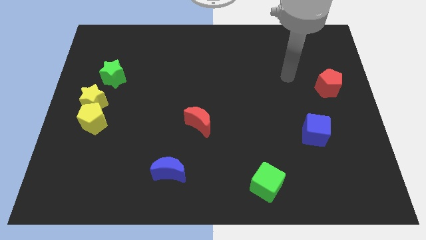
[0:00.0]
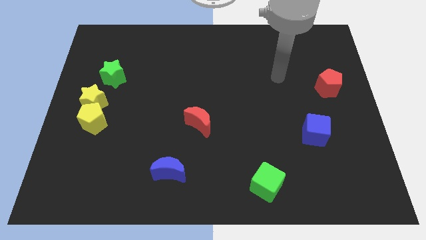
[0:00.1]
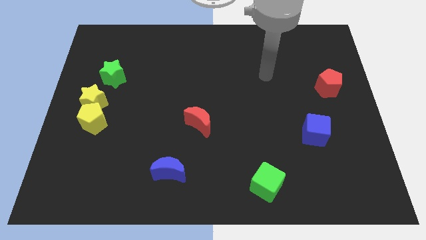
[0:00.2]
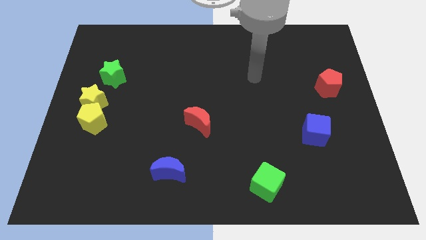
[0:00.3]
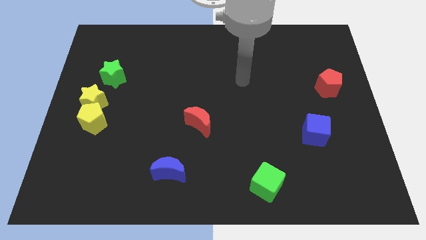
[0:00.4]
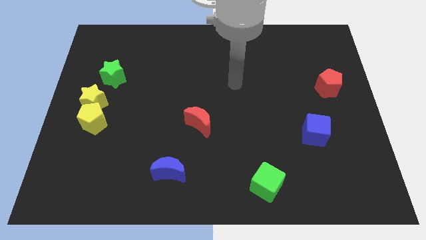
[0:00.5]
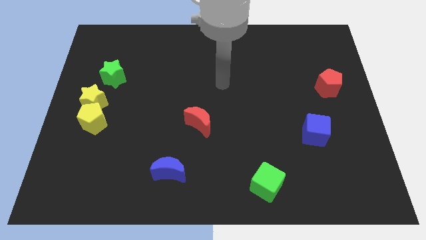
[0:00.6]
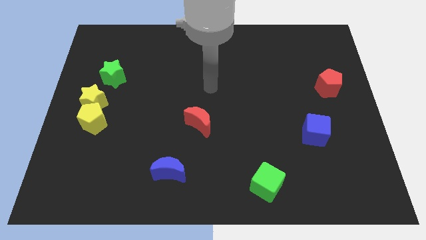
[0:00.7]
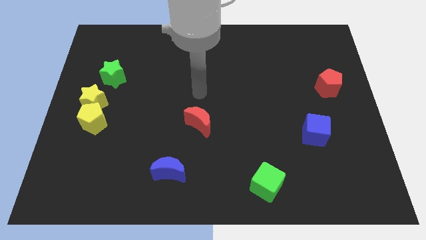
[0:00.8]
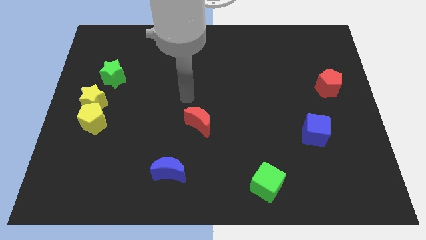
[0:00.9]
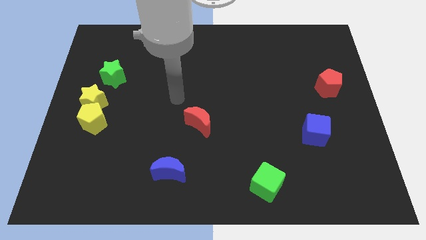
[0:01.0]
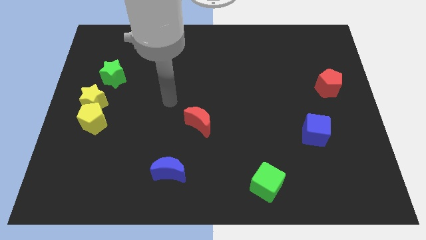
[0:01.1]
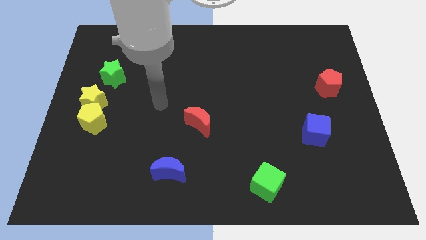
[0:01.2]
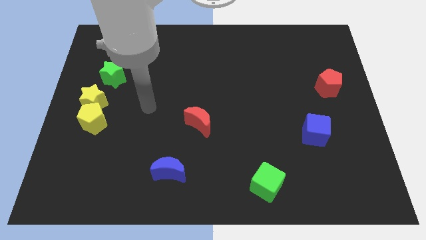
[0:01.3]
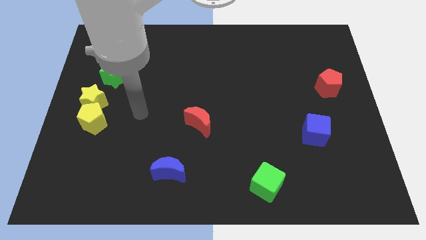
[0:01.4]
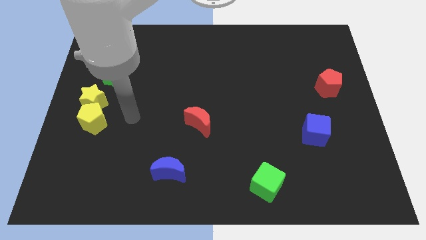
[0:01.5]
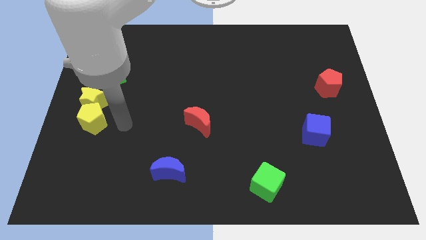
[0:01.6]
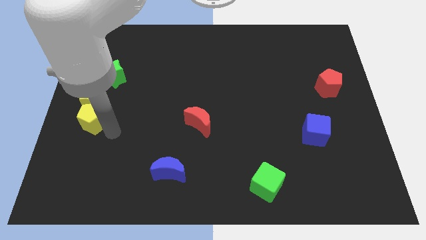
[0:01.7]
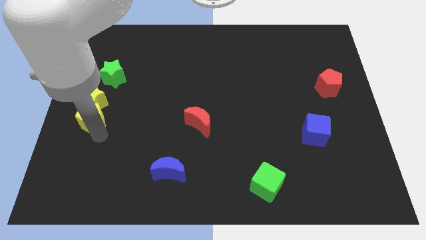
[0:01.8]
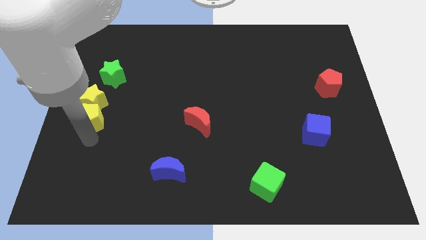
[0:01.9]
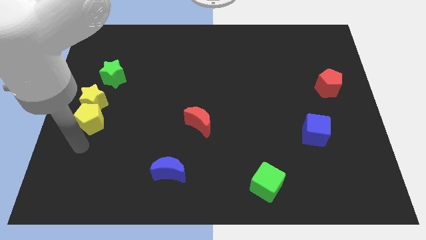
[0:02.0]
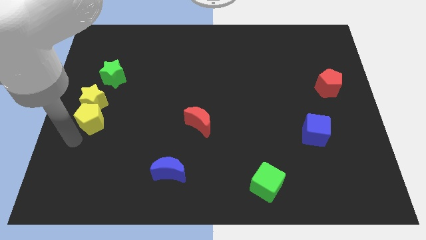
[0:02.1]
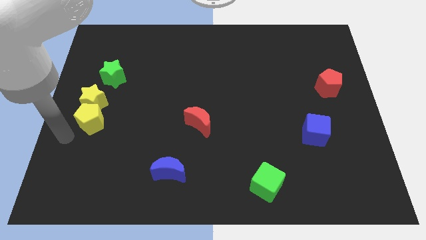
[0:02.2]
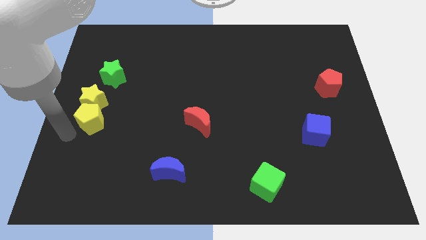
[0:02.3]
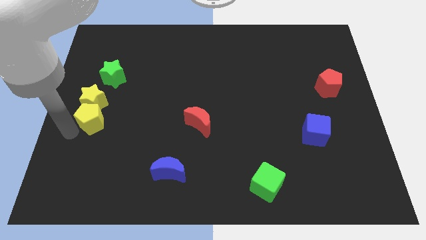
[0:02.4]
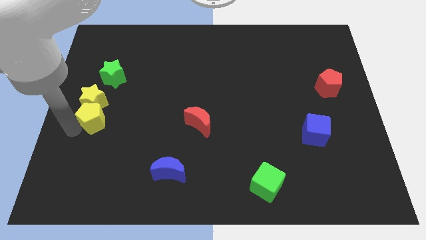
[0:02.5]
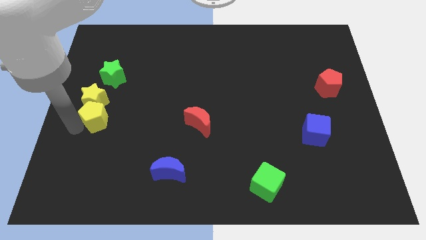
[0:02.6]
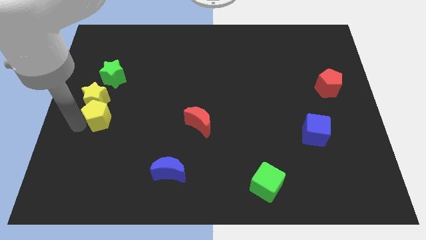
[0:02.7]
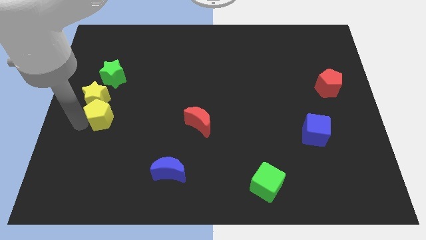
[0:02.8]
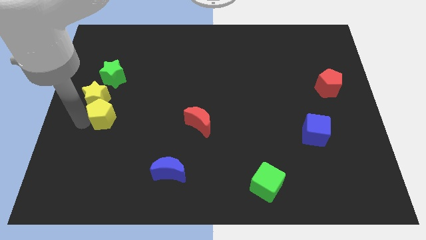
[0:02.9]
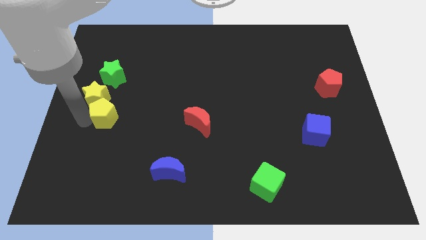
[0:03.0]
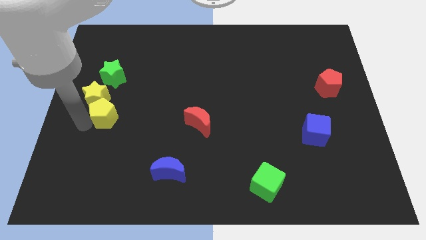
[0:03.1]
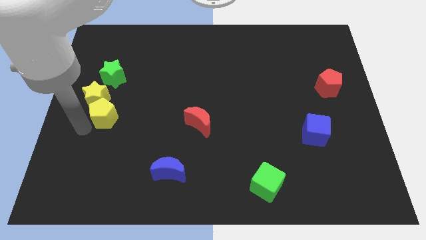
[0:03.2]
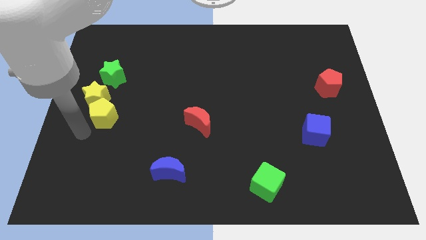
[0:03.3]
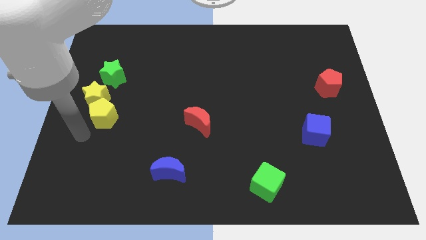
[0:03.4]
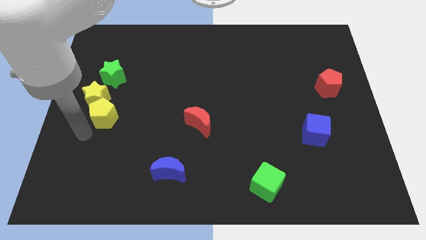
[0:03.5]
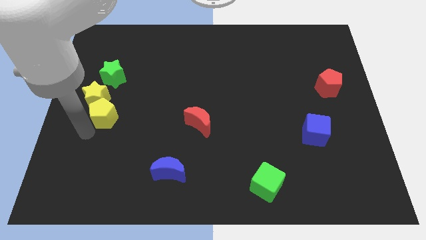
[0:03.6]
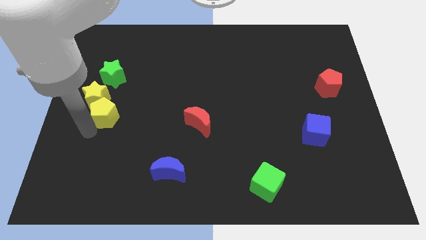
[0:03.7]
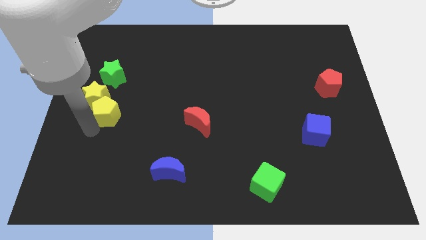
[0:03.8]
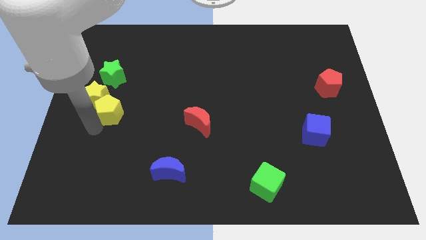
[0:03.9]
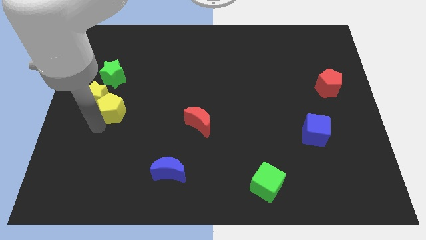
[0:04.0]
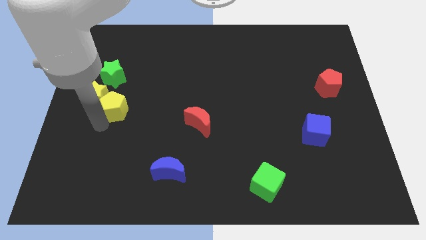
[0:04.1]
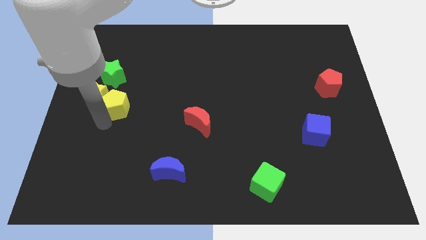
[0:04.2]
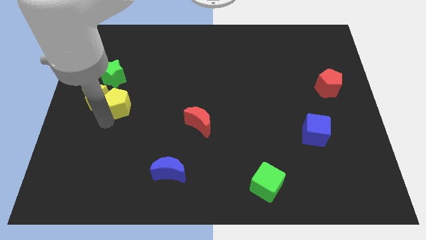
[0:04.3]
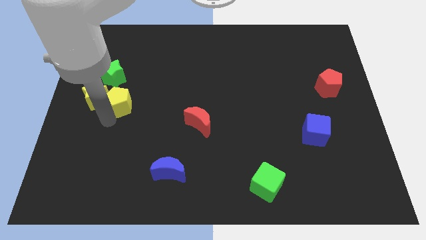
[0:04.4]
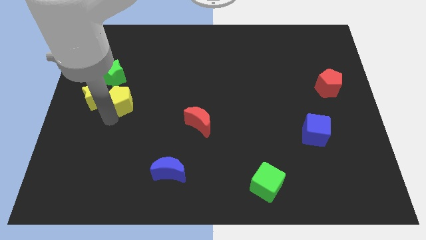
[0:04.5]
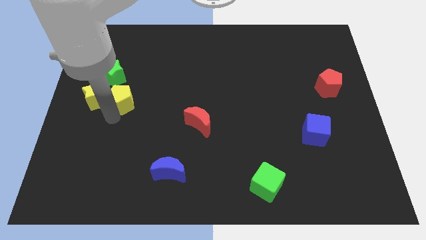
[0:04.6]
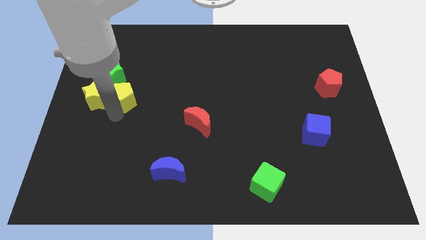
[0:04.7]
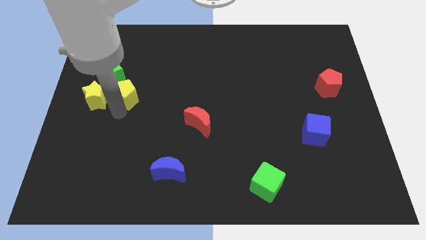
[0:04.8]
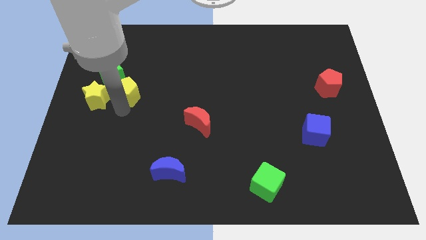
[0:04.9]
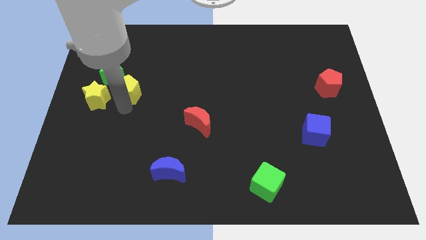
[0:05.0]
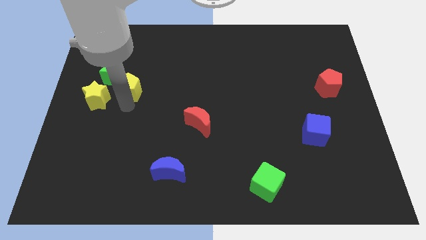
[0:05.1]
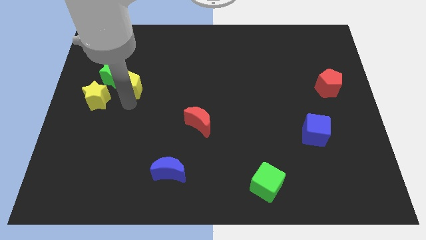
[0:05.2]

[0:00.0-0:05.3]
move the yellow pentagon next to the green star

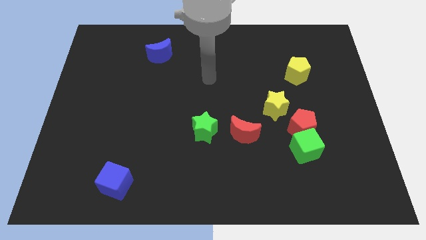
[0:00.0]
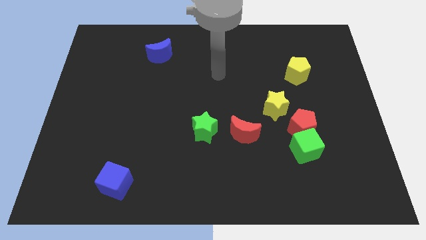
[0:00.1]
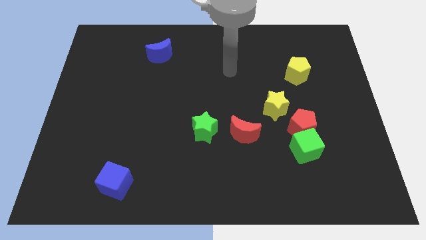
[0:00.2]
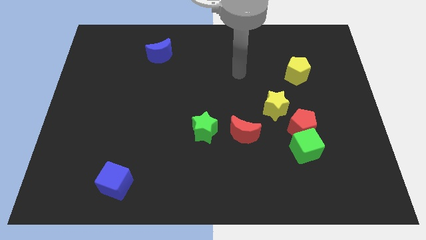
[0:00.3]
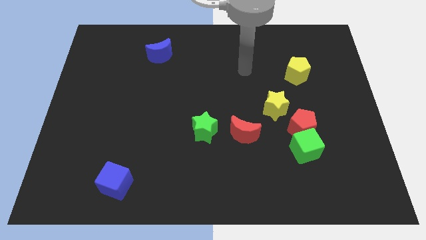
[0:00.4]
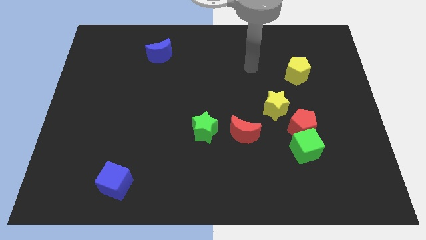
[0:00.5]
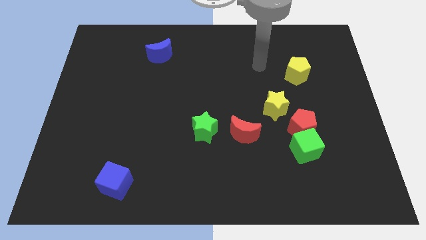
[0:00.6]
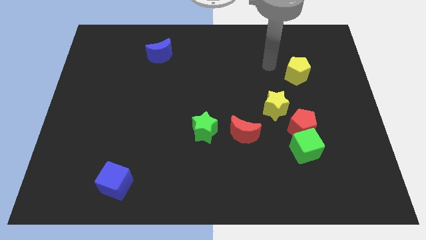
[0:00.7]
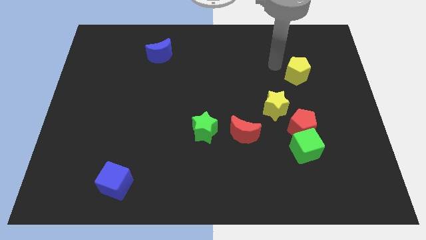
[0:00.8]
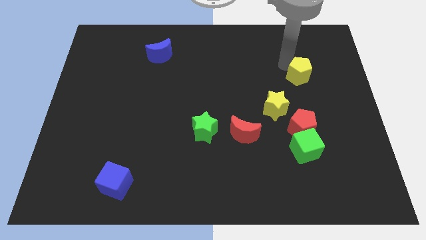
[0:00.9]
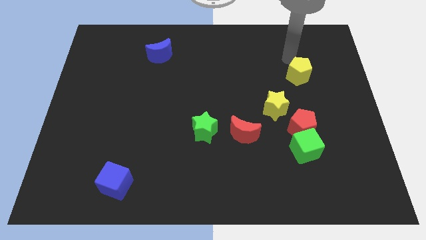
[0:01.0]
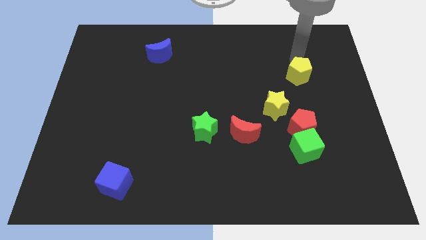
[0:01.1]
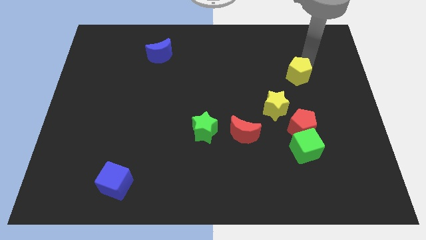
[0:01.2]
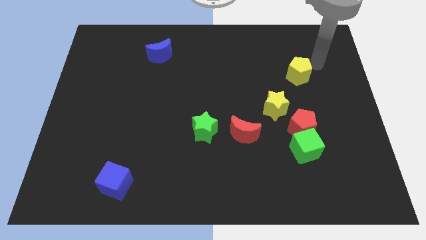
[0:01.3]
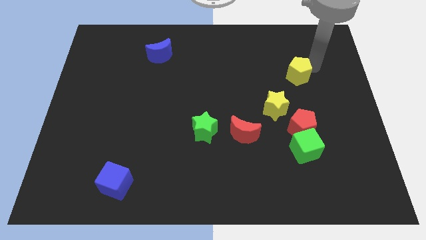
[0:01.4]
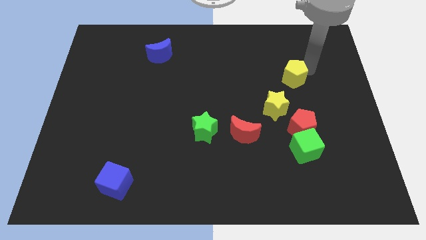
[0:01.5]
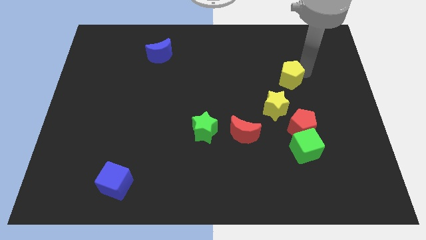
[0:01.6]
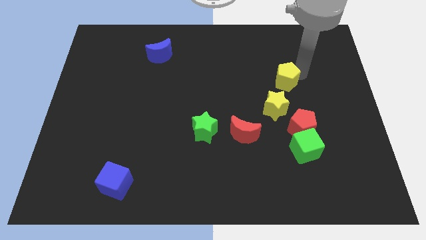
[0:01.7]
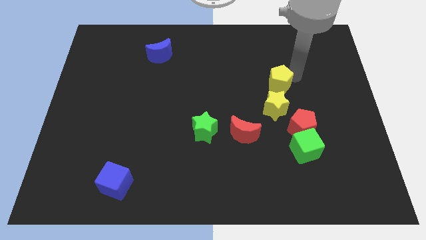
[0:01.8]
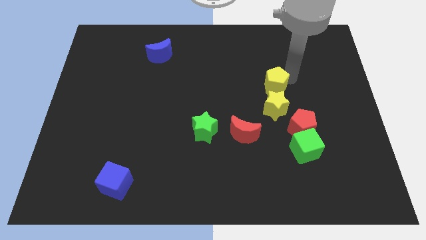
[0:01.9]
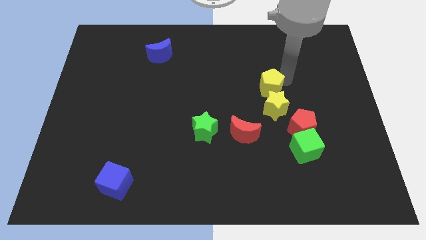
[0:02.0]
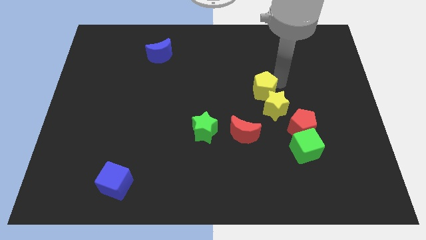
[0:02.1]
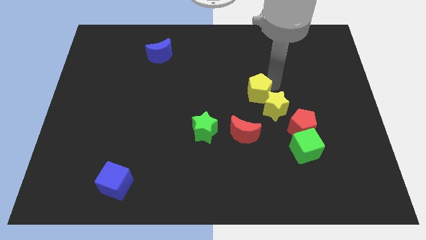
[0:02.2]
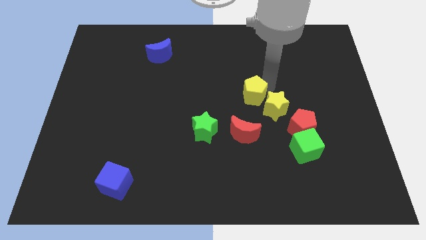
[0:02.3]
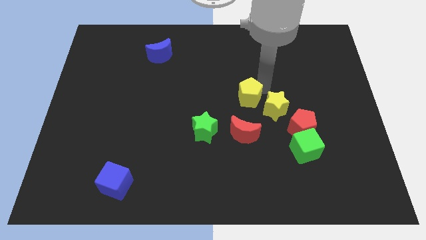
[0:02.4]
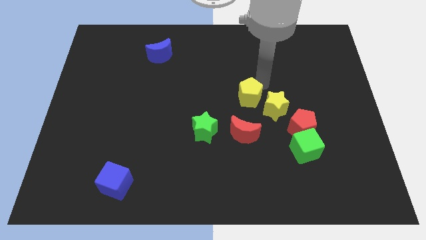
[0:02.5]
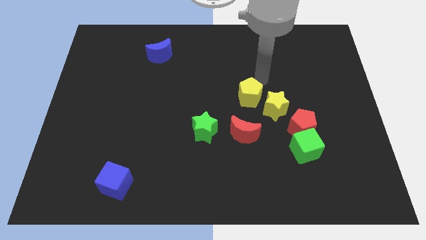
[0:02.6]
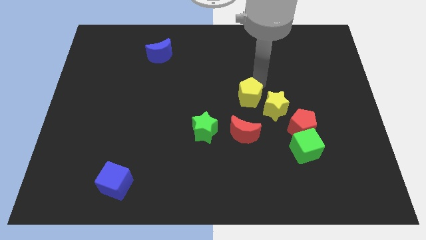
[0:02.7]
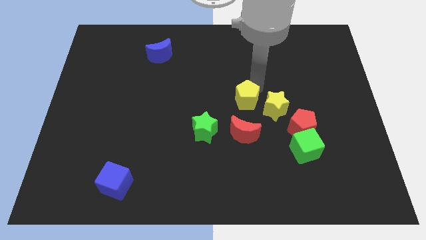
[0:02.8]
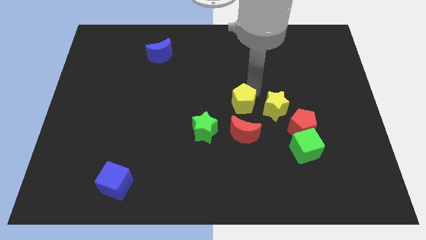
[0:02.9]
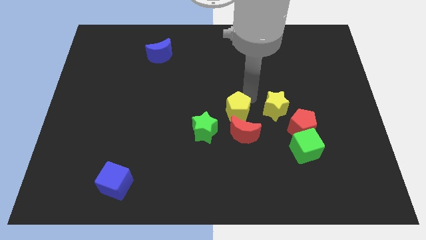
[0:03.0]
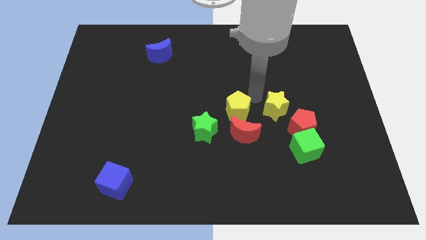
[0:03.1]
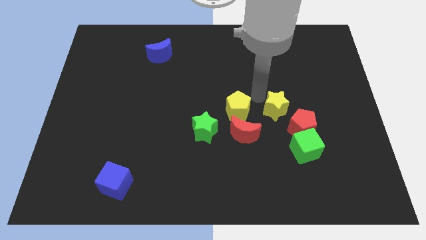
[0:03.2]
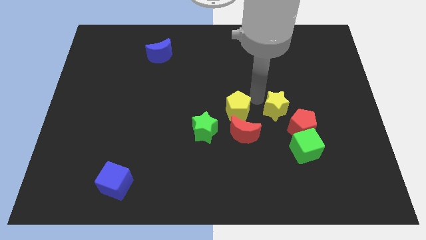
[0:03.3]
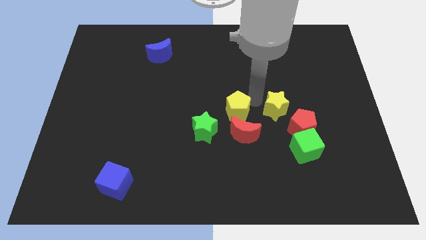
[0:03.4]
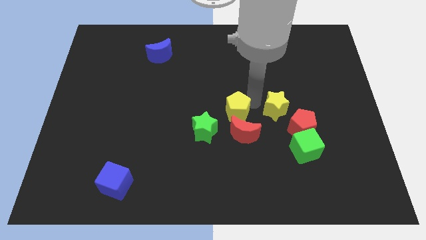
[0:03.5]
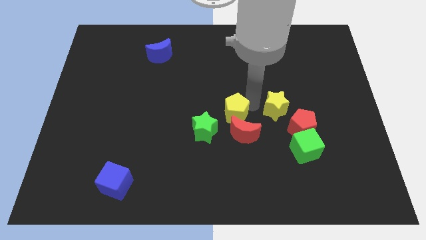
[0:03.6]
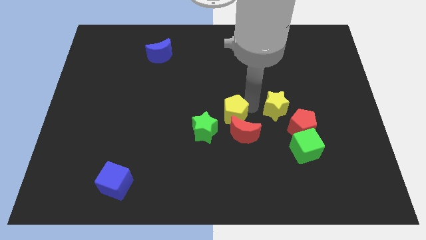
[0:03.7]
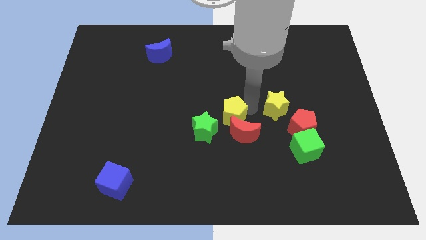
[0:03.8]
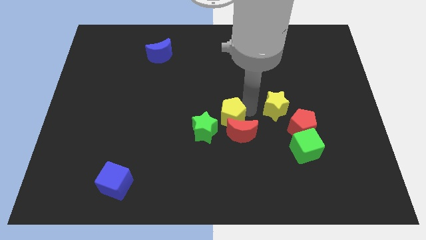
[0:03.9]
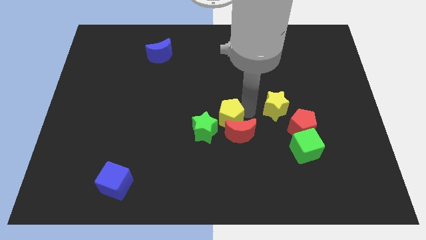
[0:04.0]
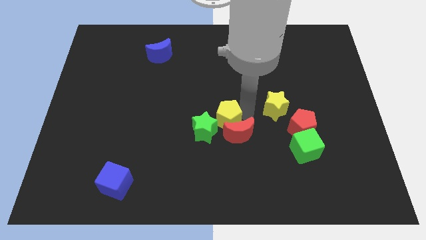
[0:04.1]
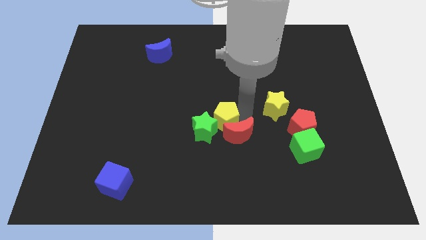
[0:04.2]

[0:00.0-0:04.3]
put the yellow pentagon to the green star
